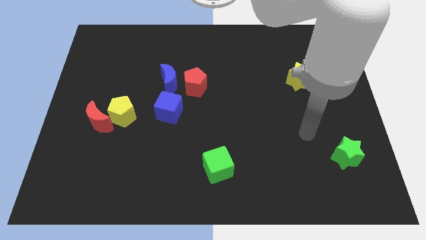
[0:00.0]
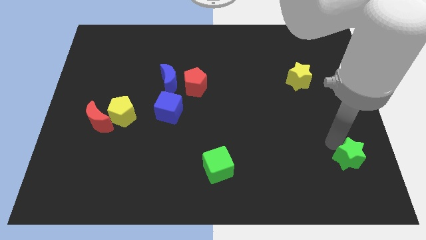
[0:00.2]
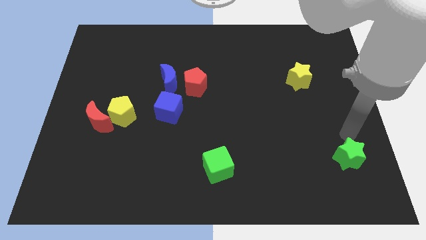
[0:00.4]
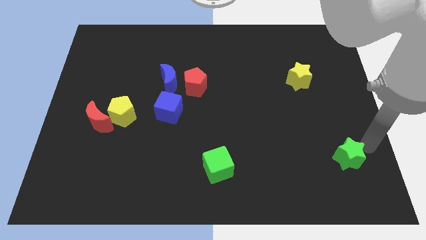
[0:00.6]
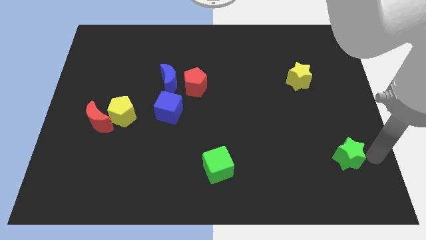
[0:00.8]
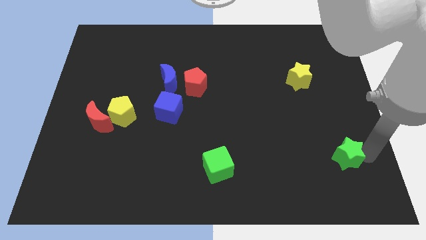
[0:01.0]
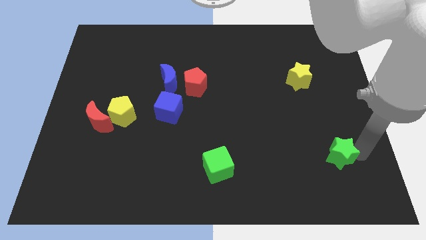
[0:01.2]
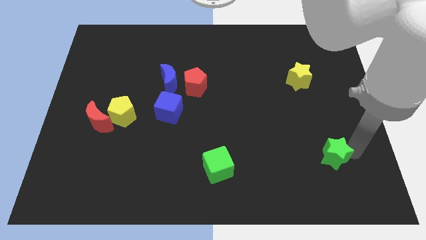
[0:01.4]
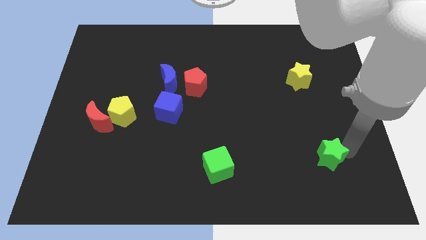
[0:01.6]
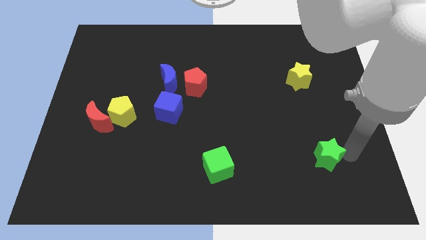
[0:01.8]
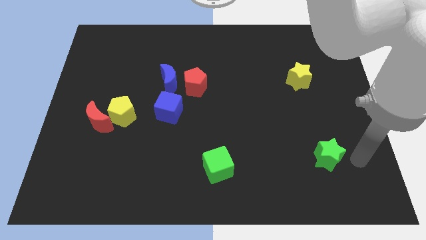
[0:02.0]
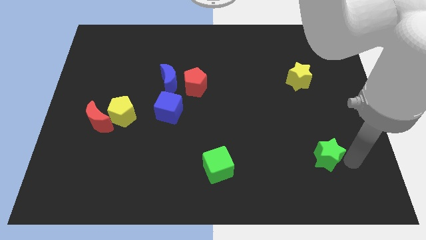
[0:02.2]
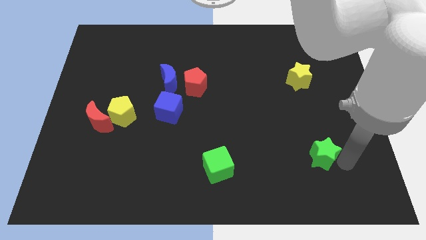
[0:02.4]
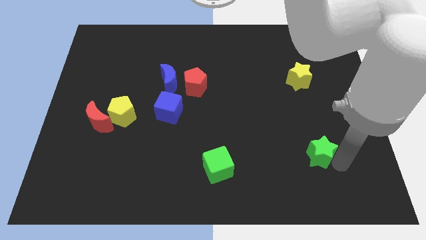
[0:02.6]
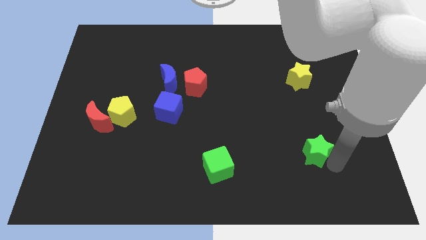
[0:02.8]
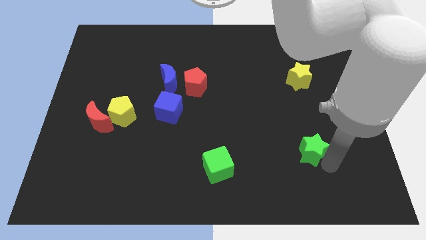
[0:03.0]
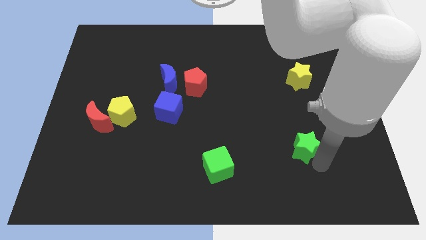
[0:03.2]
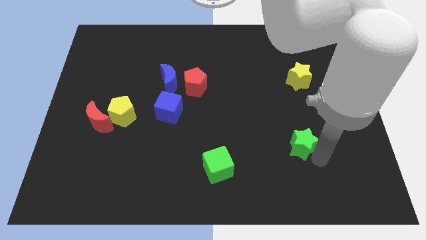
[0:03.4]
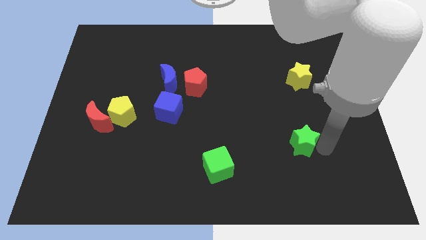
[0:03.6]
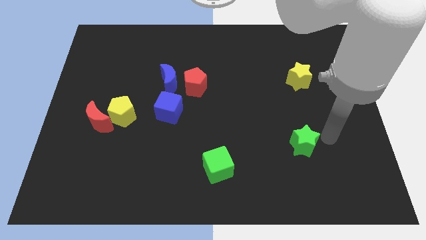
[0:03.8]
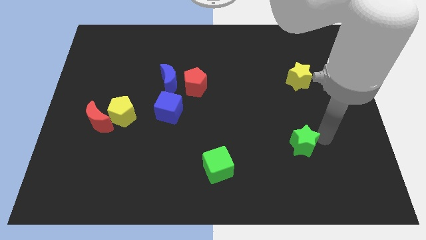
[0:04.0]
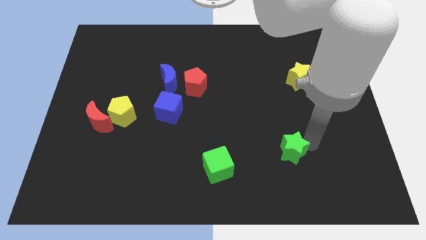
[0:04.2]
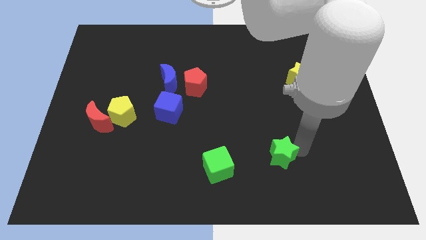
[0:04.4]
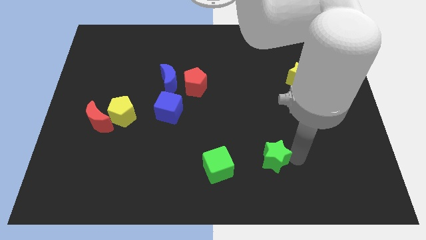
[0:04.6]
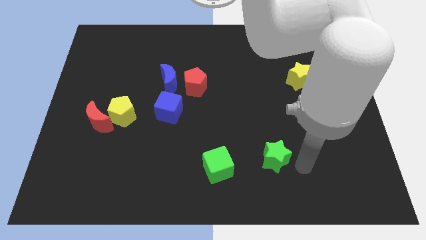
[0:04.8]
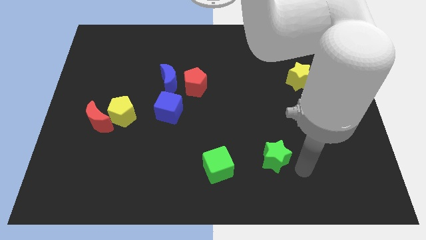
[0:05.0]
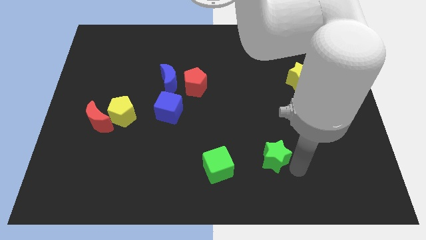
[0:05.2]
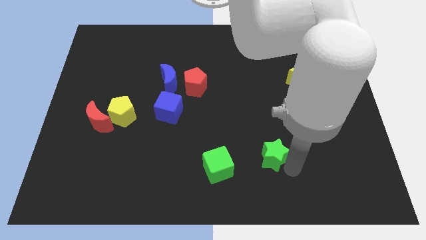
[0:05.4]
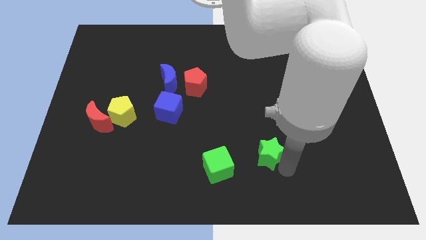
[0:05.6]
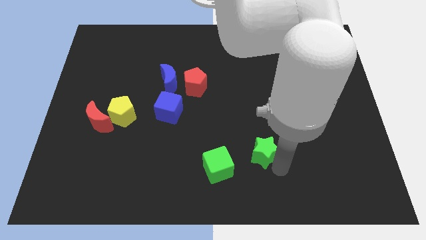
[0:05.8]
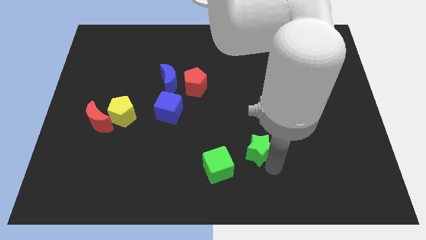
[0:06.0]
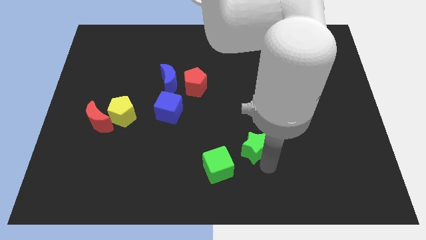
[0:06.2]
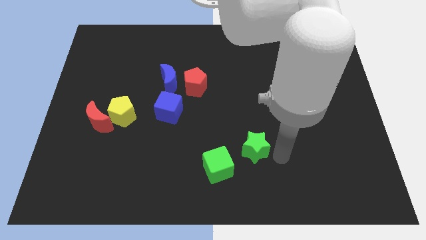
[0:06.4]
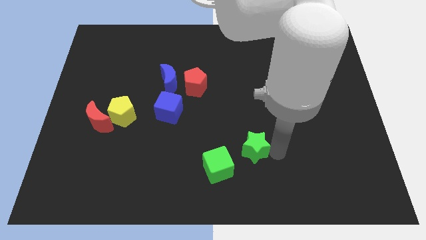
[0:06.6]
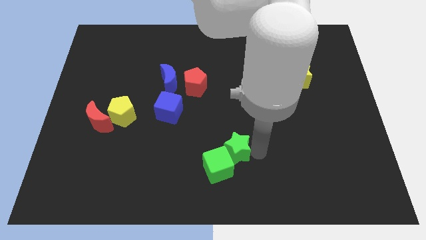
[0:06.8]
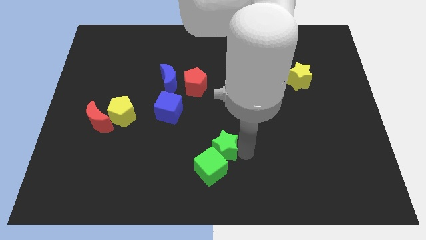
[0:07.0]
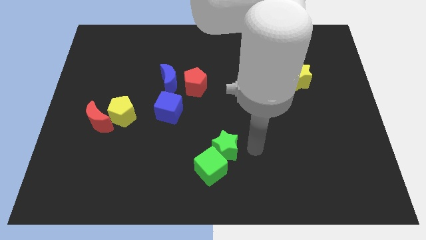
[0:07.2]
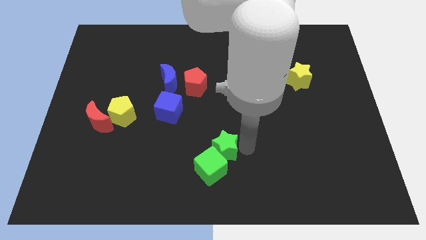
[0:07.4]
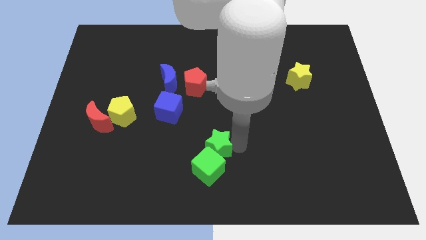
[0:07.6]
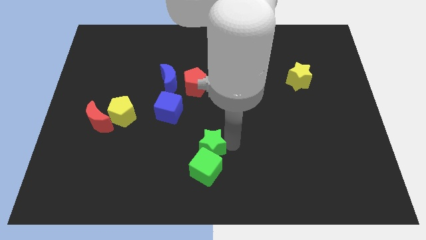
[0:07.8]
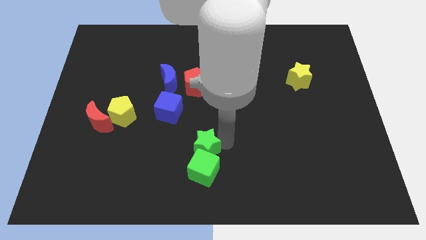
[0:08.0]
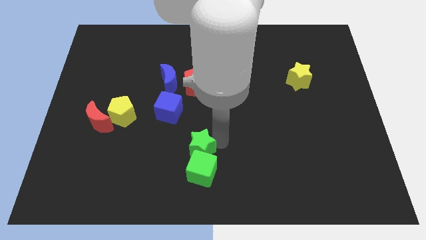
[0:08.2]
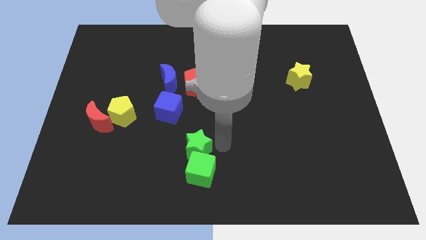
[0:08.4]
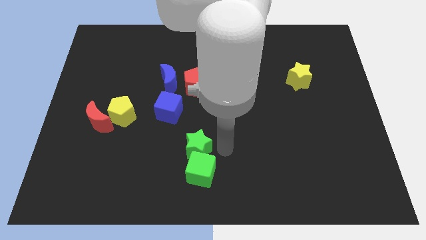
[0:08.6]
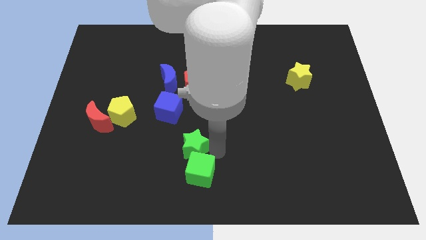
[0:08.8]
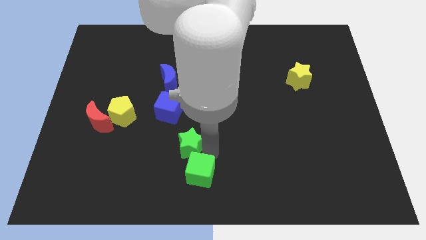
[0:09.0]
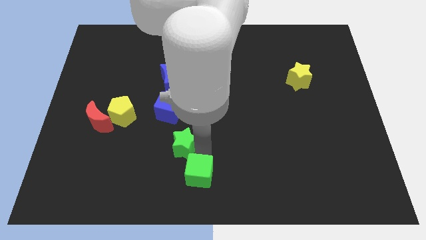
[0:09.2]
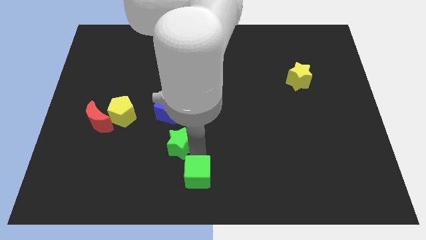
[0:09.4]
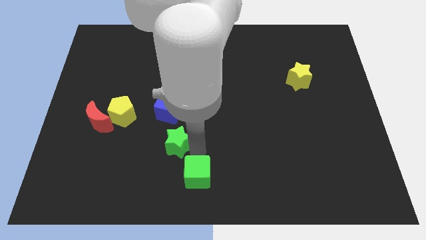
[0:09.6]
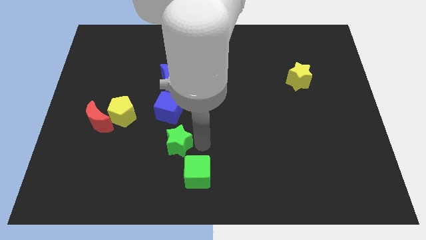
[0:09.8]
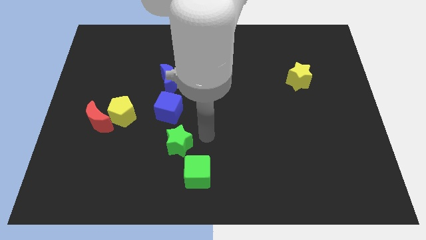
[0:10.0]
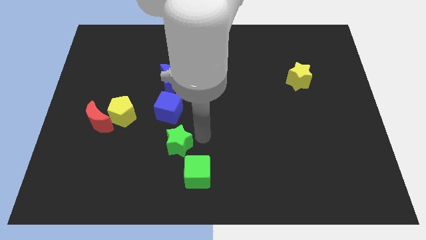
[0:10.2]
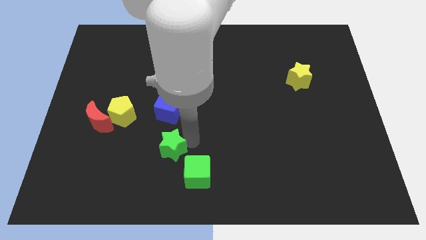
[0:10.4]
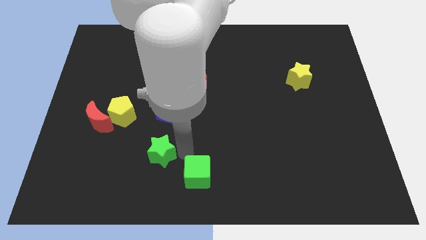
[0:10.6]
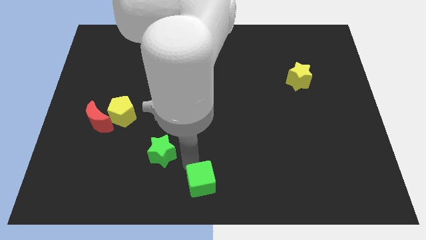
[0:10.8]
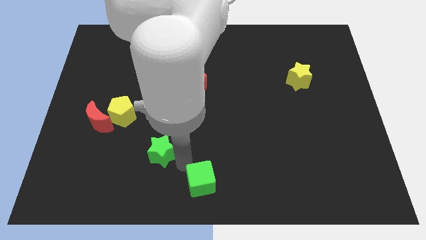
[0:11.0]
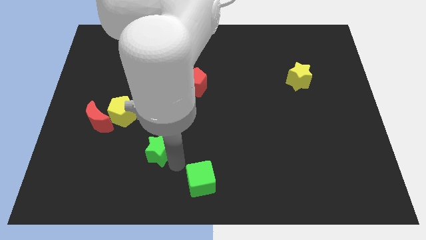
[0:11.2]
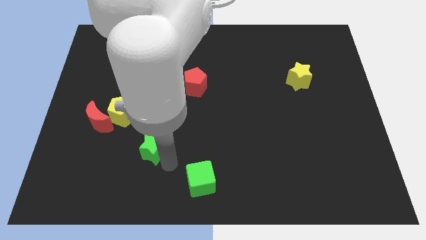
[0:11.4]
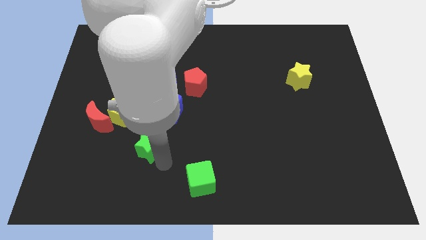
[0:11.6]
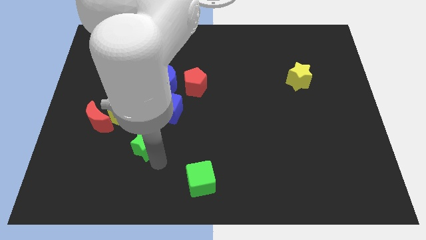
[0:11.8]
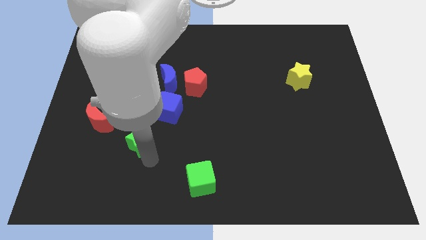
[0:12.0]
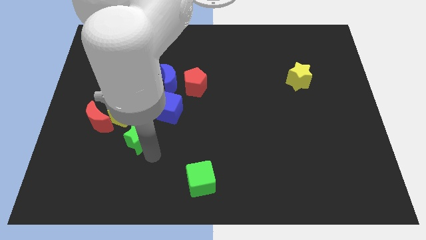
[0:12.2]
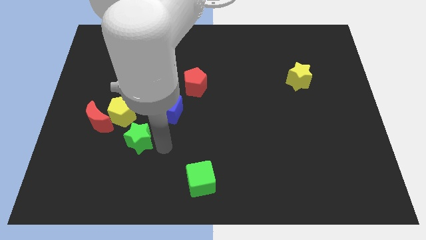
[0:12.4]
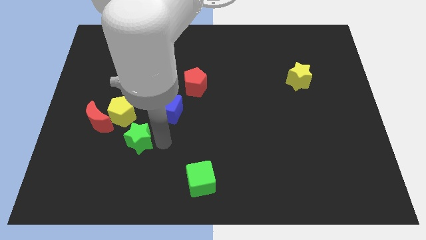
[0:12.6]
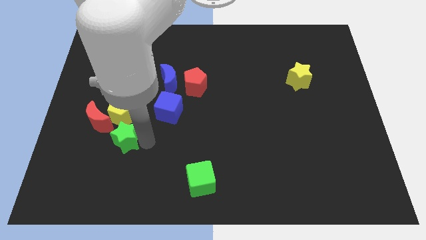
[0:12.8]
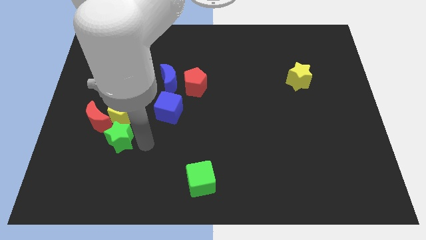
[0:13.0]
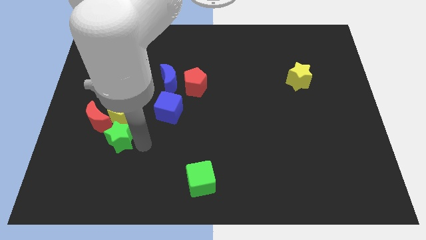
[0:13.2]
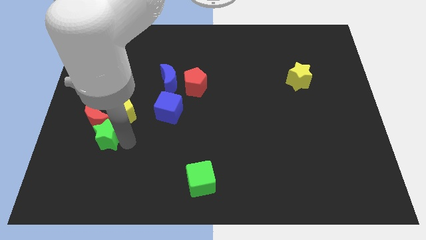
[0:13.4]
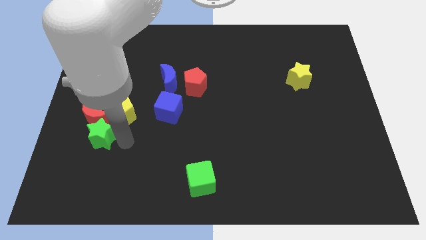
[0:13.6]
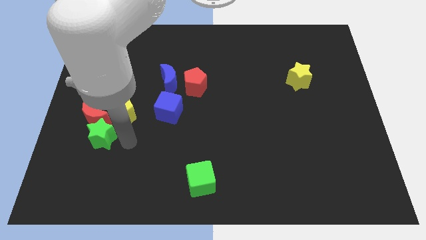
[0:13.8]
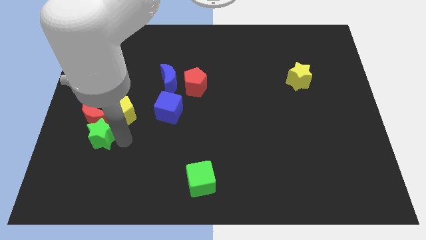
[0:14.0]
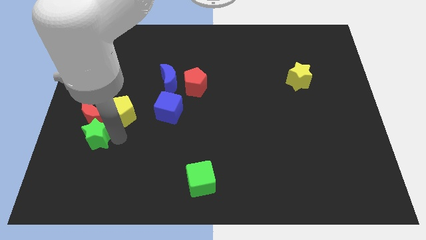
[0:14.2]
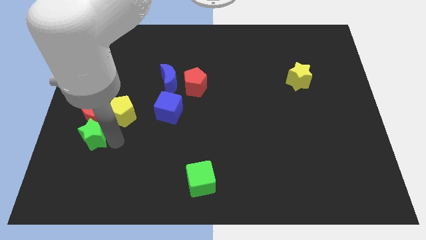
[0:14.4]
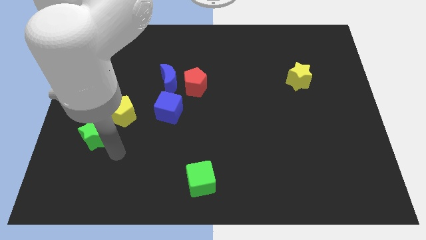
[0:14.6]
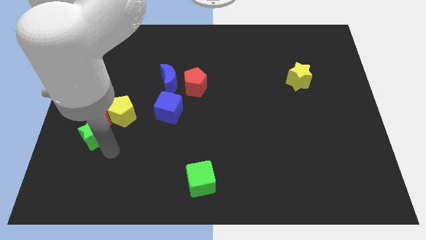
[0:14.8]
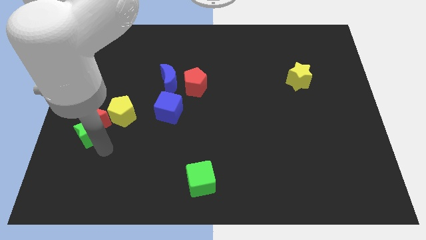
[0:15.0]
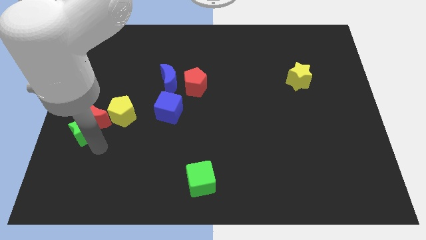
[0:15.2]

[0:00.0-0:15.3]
slide the green star to the left side
